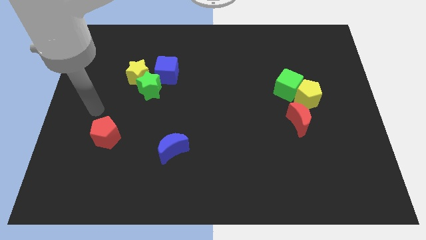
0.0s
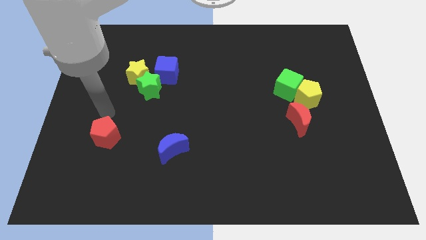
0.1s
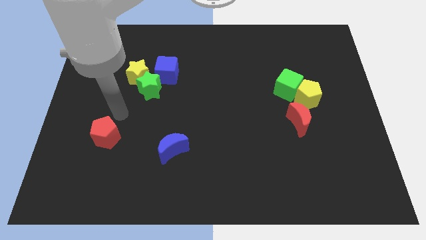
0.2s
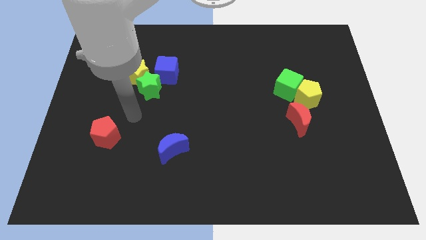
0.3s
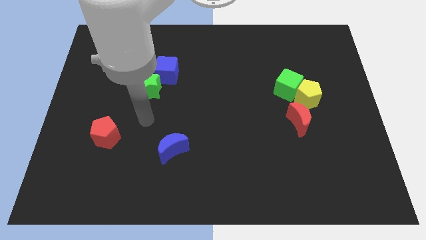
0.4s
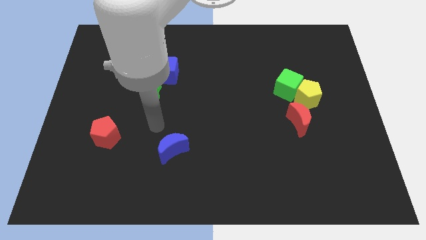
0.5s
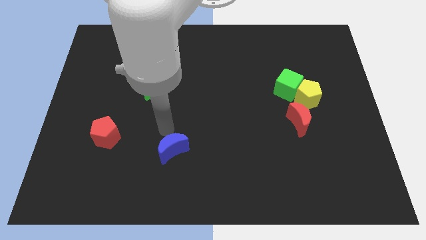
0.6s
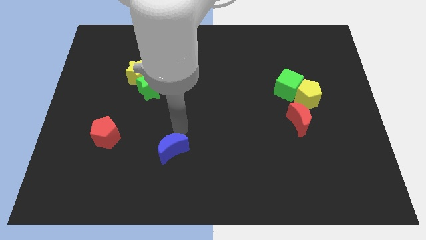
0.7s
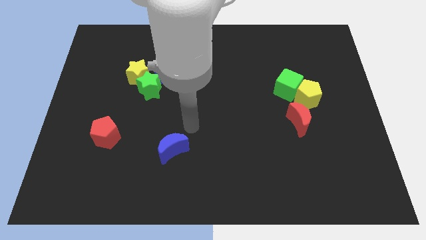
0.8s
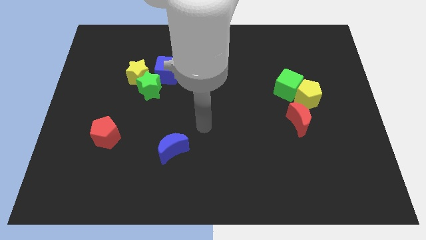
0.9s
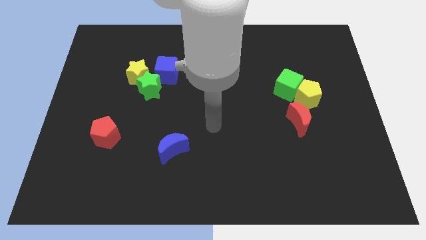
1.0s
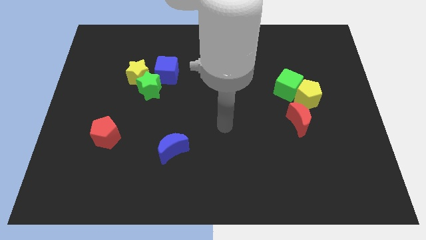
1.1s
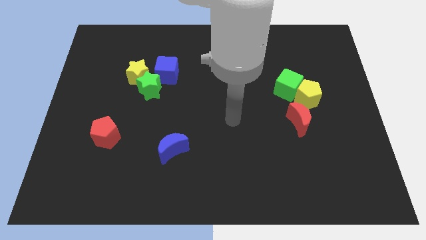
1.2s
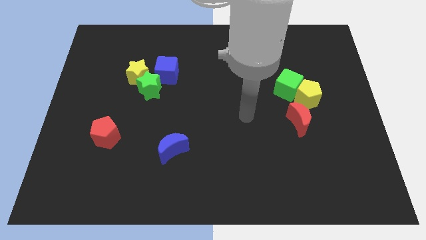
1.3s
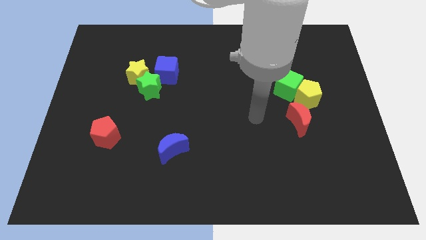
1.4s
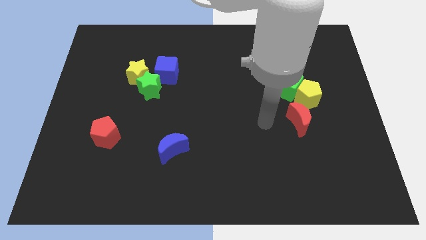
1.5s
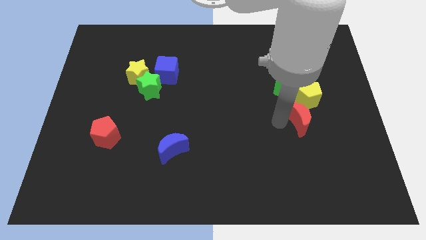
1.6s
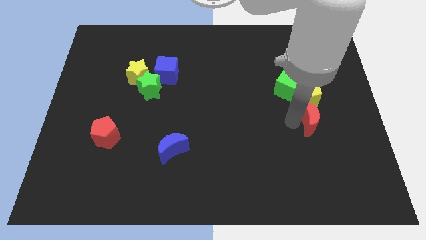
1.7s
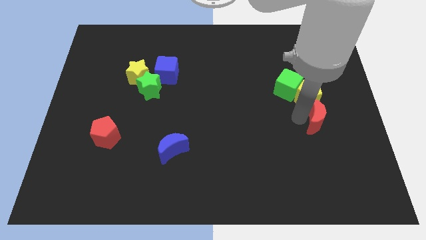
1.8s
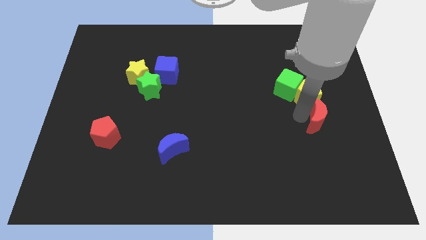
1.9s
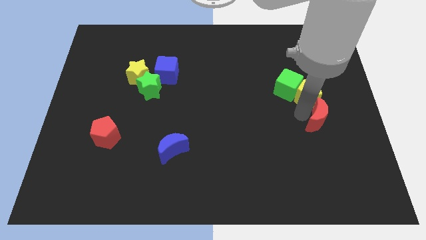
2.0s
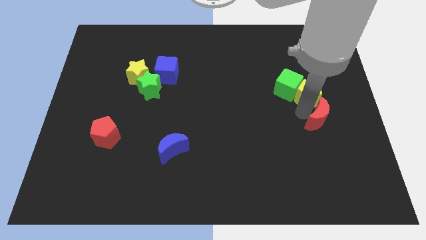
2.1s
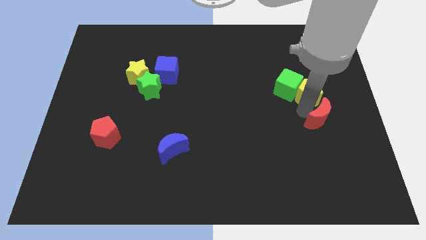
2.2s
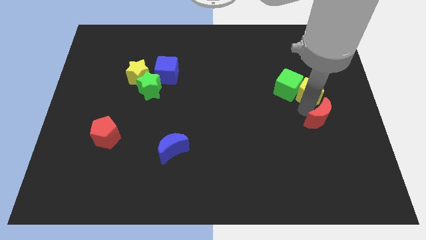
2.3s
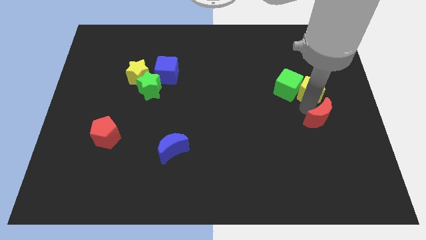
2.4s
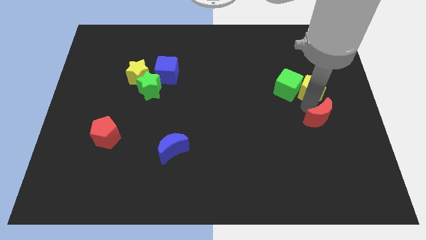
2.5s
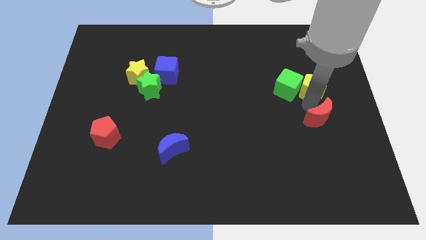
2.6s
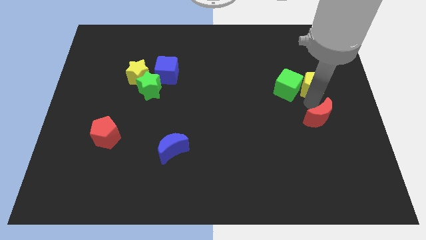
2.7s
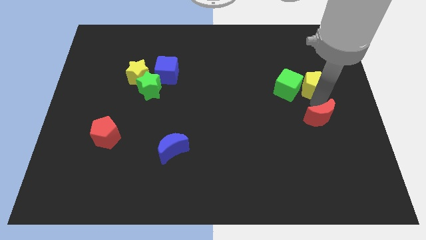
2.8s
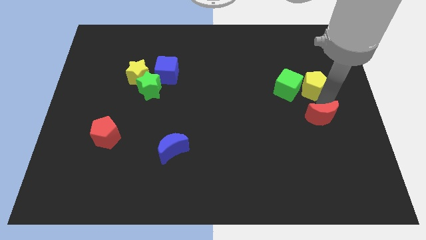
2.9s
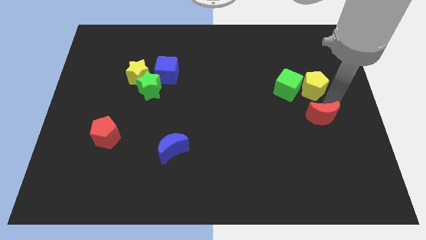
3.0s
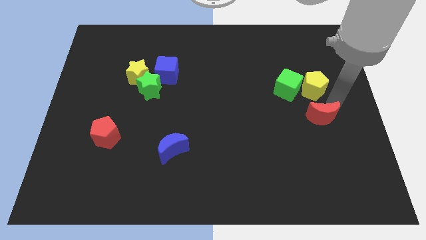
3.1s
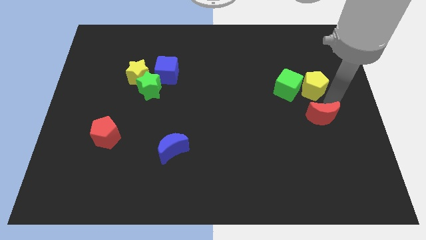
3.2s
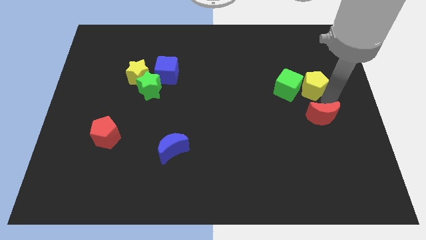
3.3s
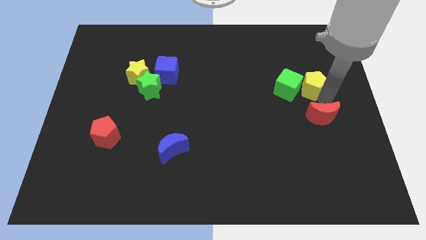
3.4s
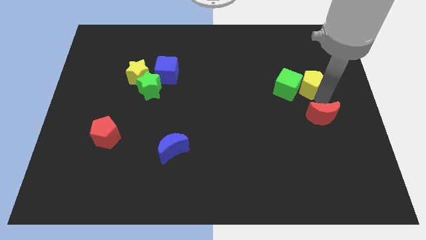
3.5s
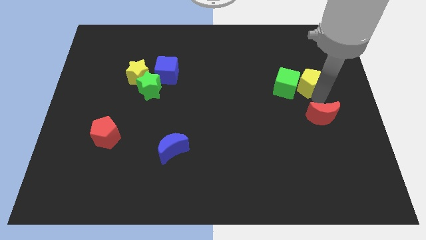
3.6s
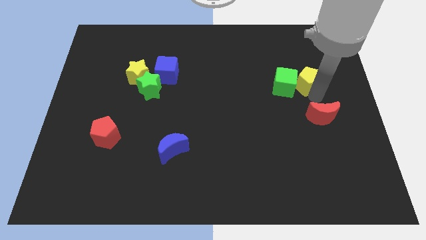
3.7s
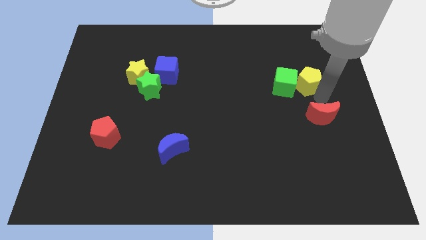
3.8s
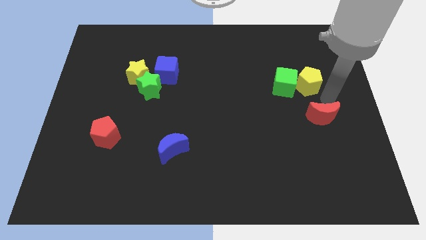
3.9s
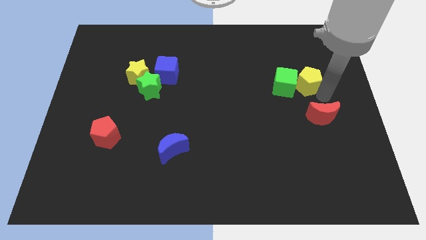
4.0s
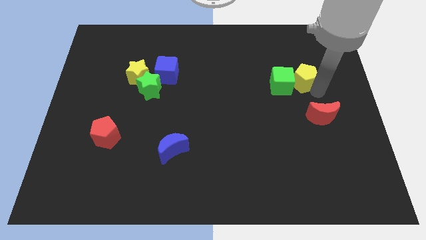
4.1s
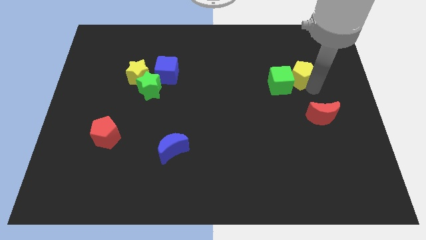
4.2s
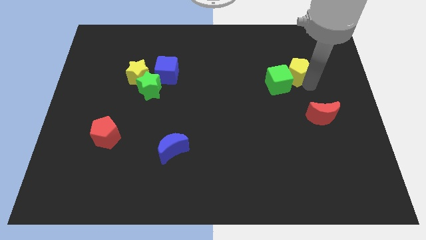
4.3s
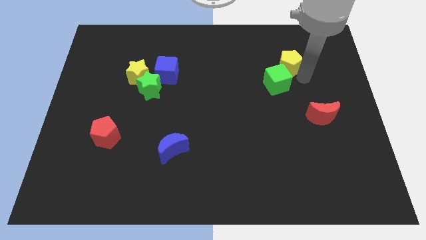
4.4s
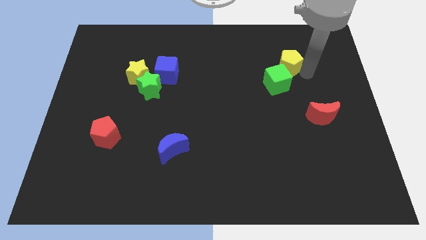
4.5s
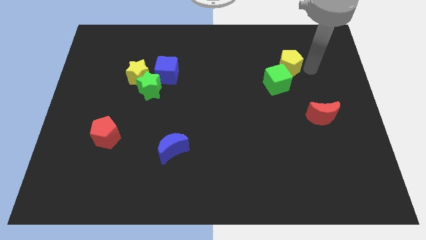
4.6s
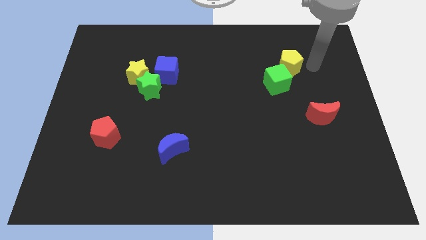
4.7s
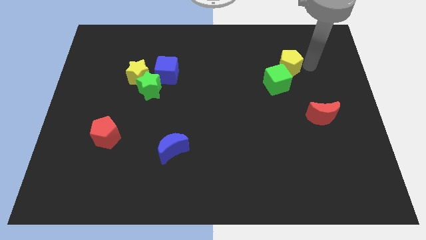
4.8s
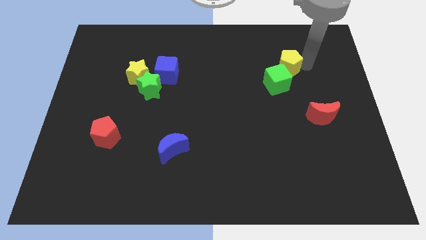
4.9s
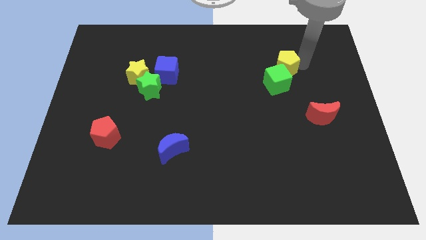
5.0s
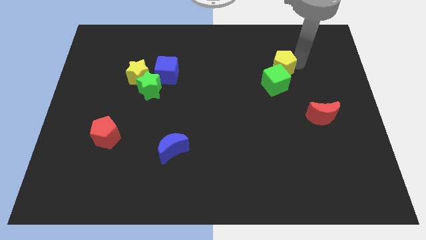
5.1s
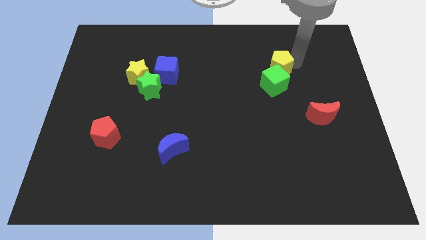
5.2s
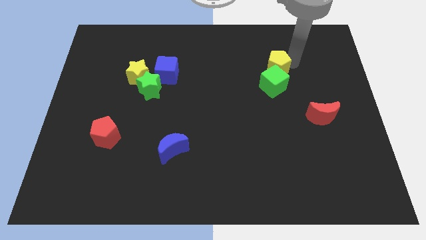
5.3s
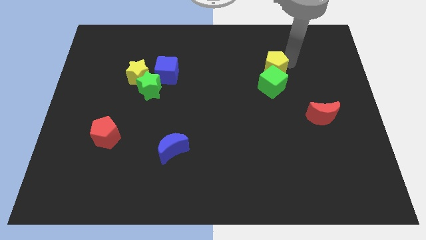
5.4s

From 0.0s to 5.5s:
push the yellow pentagon to the top left of the green cube

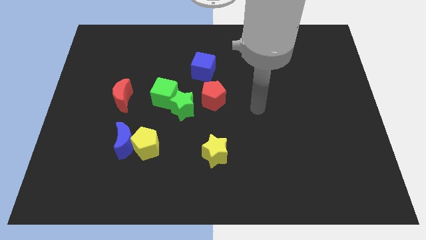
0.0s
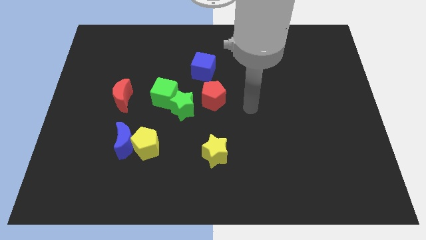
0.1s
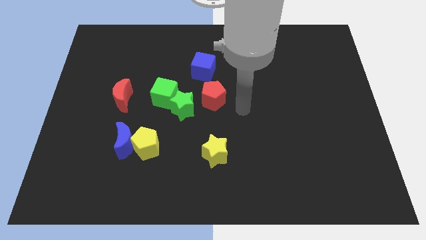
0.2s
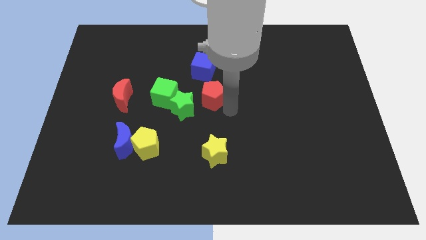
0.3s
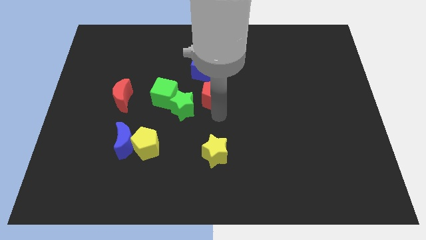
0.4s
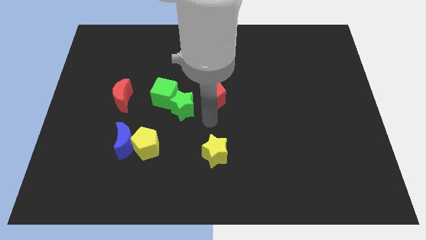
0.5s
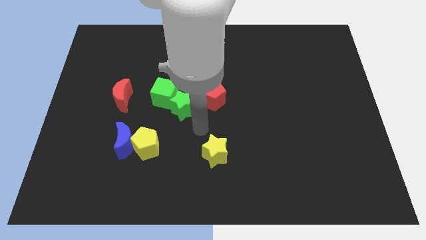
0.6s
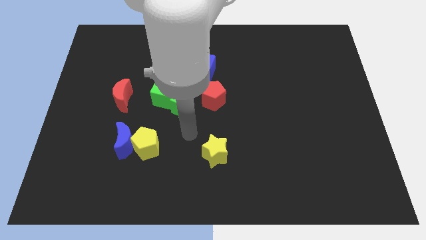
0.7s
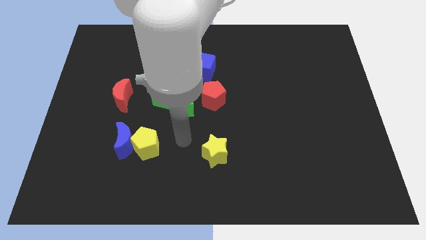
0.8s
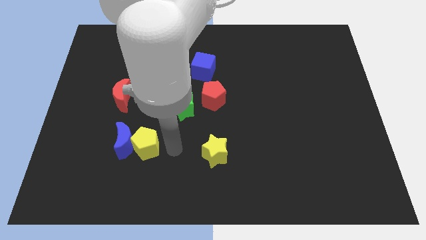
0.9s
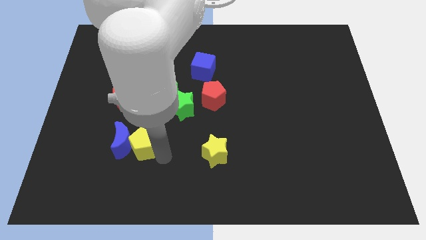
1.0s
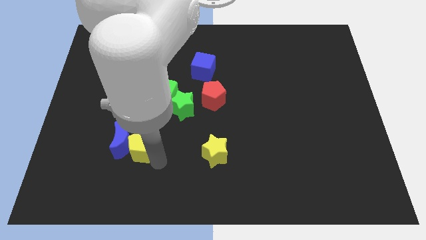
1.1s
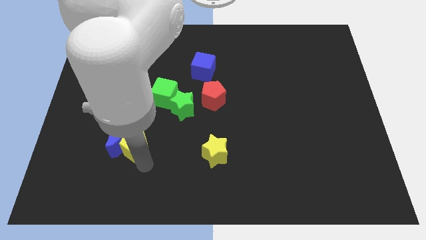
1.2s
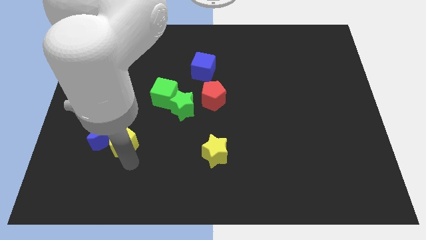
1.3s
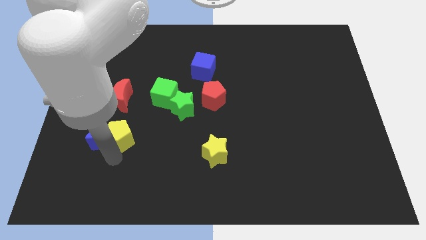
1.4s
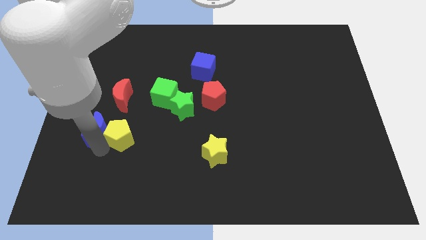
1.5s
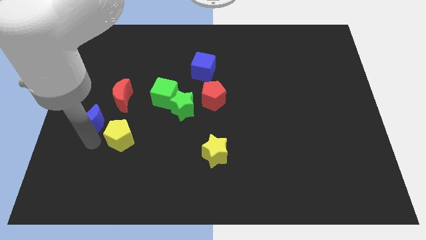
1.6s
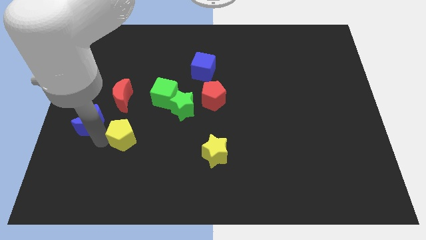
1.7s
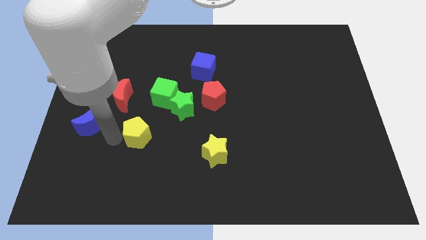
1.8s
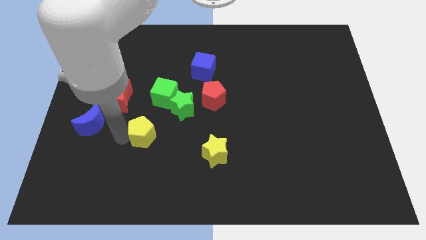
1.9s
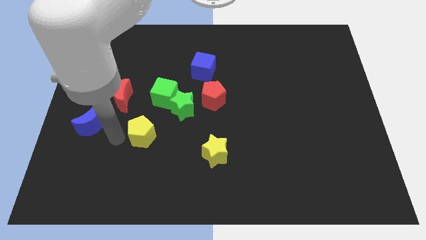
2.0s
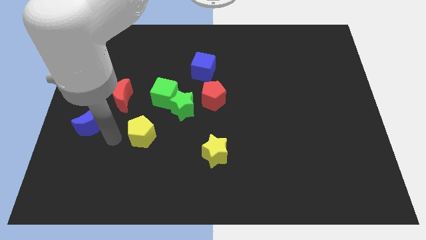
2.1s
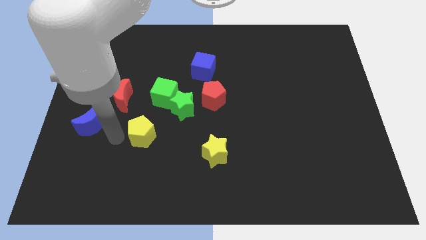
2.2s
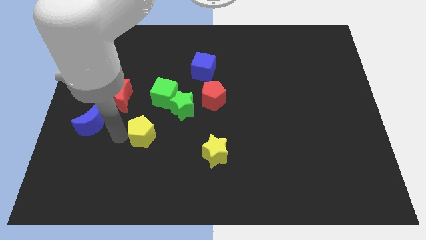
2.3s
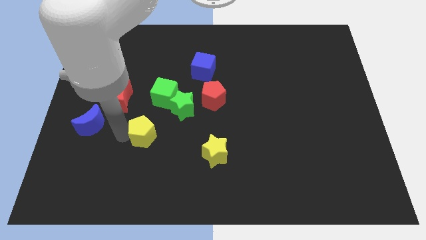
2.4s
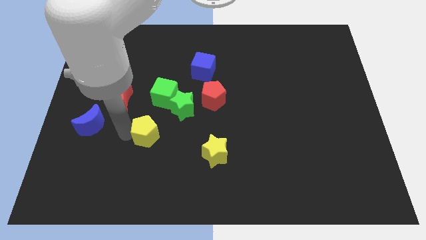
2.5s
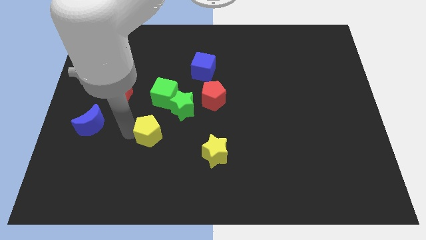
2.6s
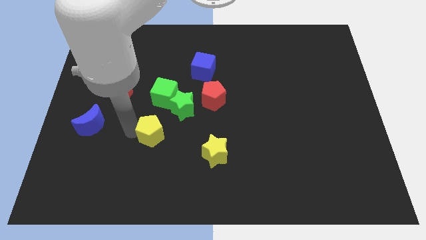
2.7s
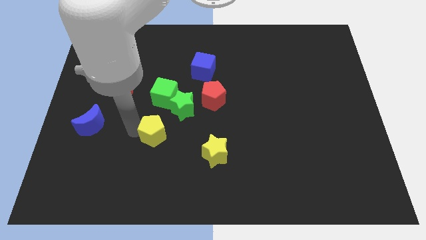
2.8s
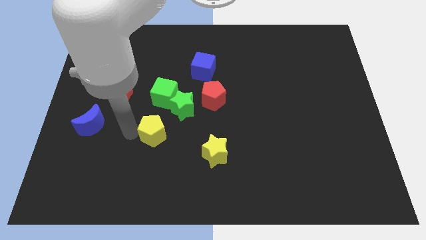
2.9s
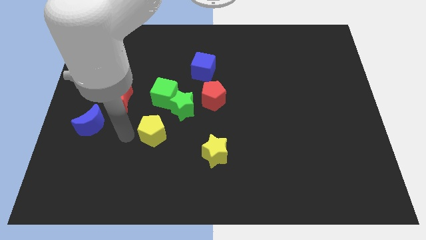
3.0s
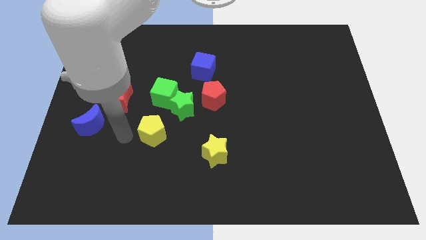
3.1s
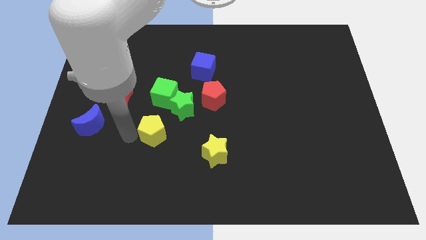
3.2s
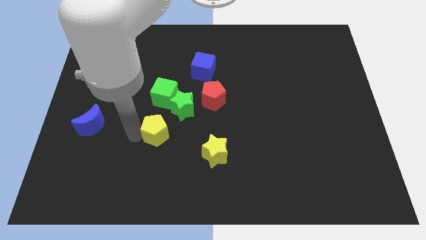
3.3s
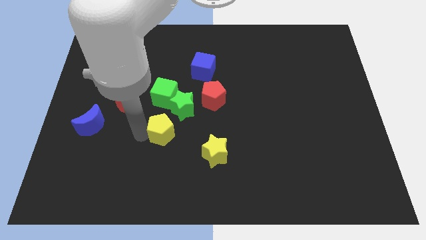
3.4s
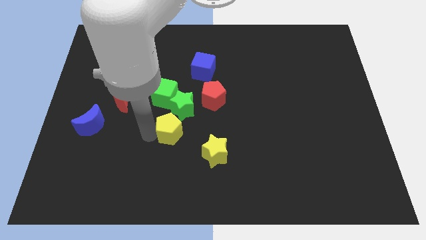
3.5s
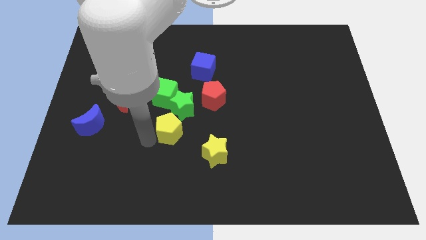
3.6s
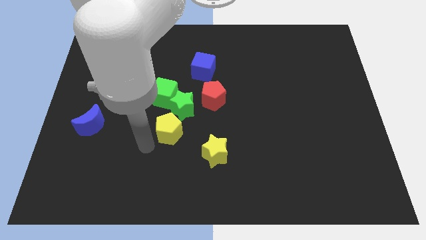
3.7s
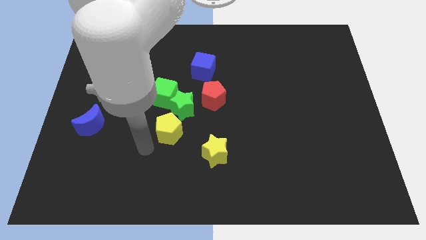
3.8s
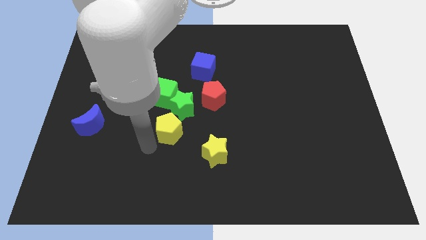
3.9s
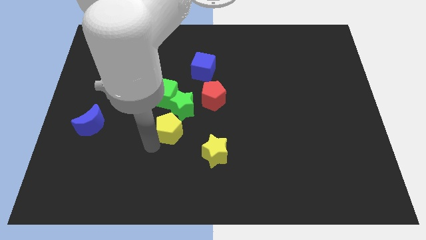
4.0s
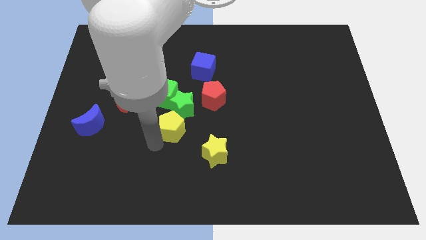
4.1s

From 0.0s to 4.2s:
put the yellow pentagon to the bottom left side of the red pentagon
